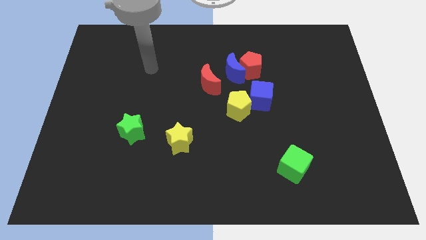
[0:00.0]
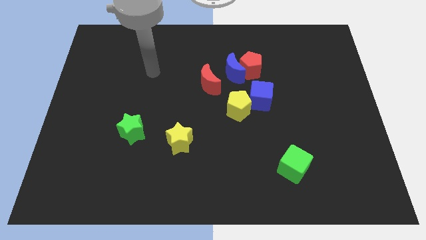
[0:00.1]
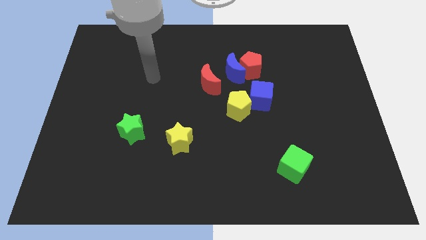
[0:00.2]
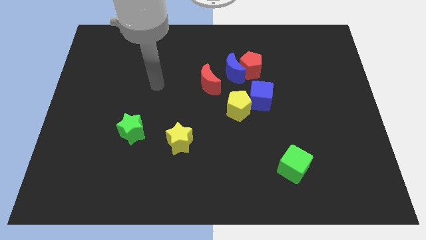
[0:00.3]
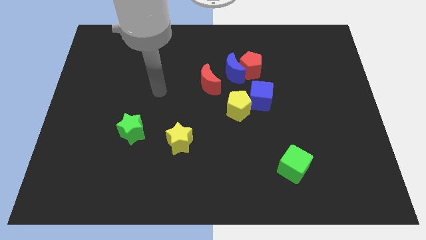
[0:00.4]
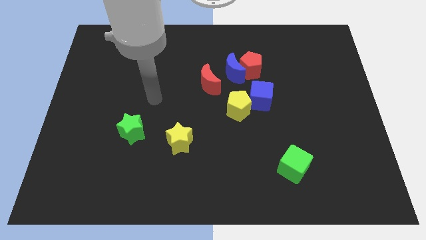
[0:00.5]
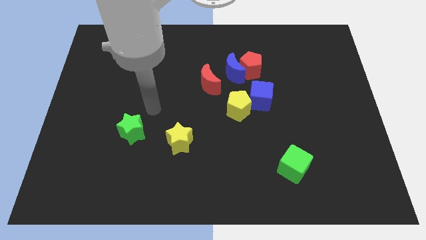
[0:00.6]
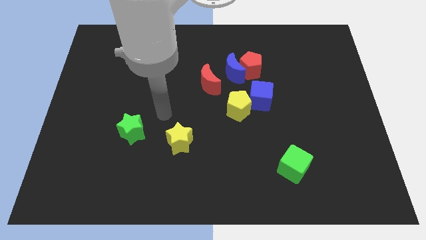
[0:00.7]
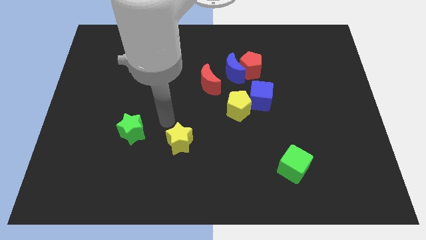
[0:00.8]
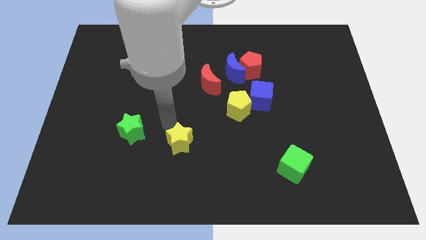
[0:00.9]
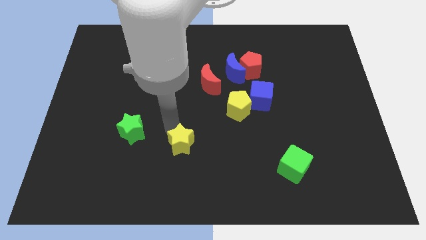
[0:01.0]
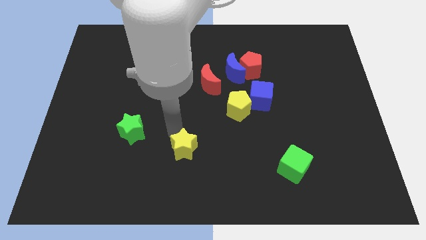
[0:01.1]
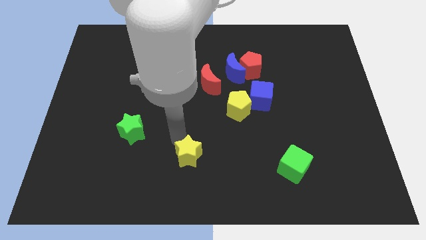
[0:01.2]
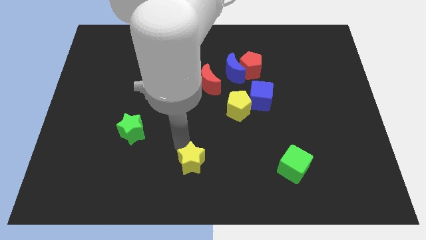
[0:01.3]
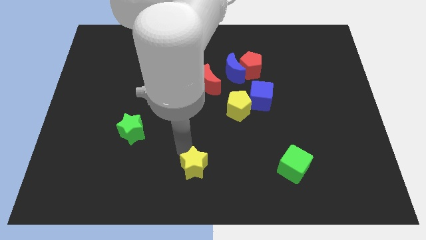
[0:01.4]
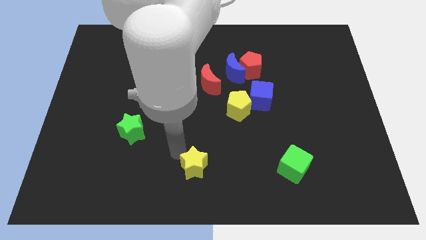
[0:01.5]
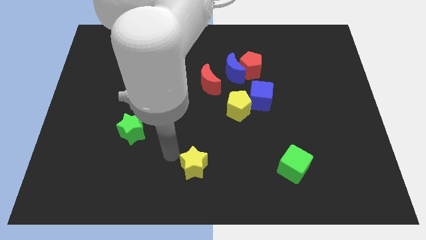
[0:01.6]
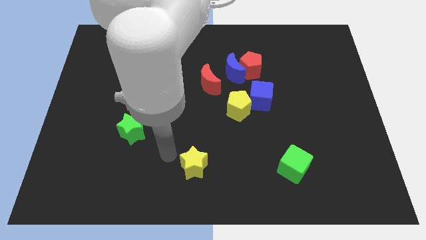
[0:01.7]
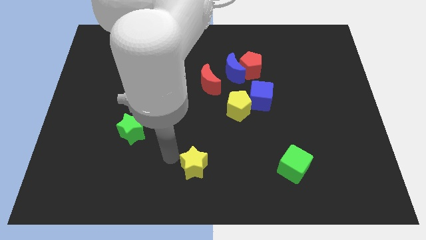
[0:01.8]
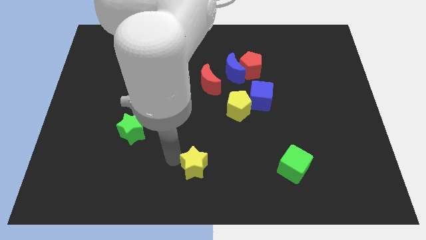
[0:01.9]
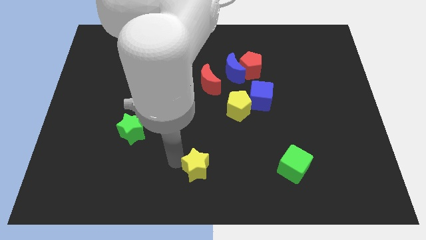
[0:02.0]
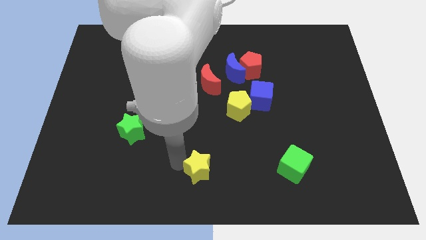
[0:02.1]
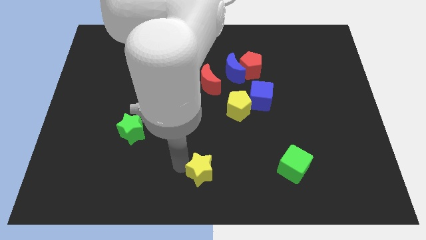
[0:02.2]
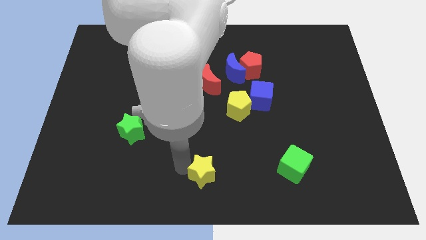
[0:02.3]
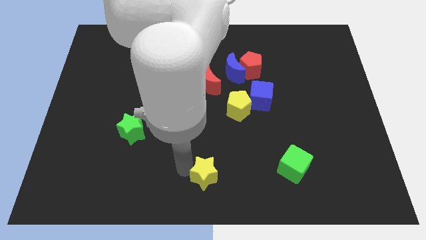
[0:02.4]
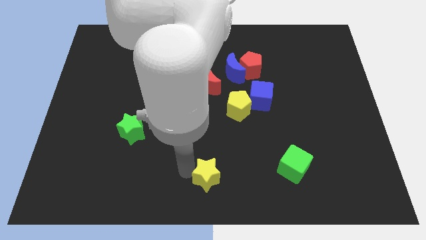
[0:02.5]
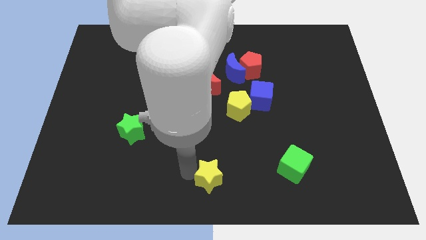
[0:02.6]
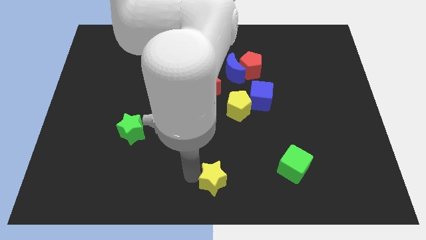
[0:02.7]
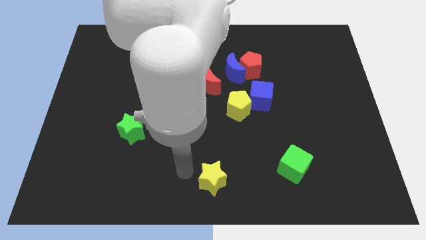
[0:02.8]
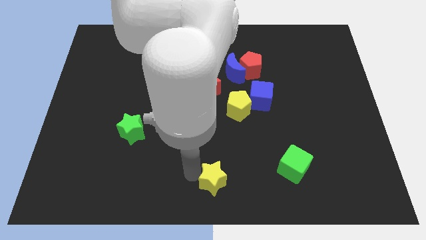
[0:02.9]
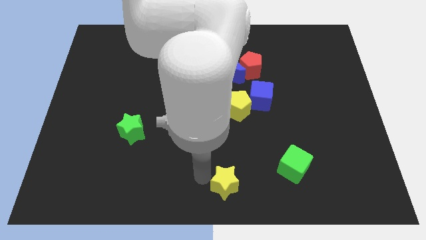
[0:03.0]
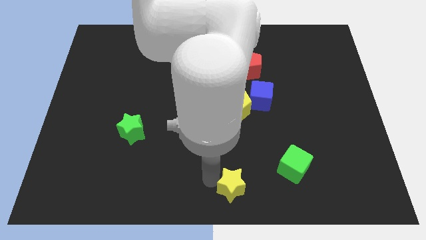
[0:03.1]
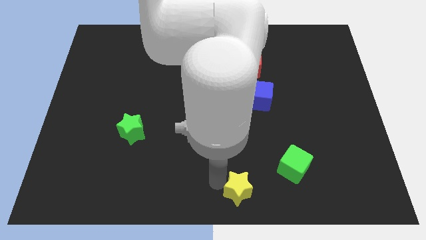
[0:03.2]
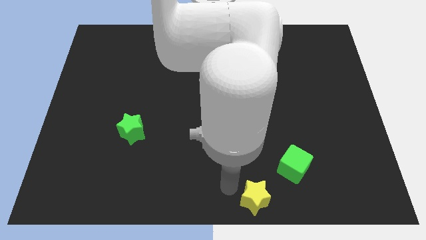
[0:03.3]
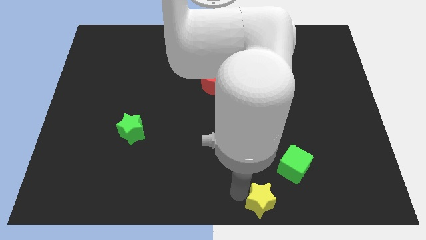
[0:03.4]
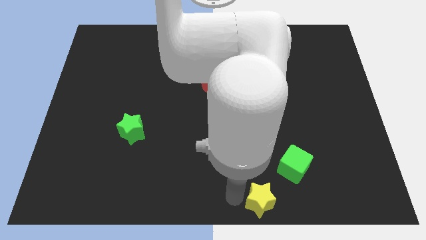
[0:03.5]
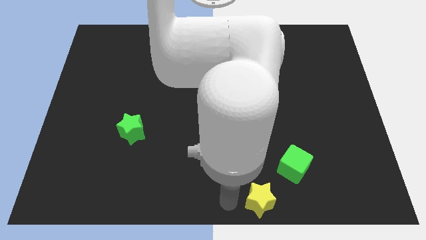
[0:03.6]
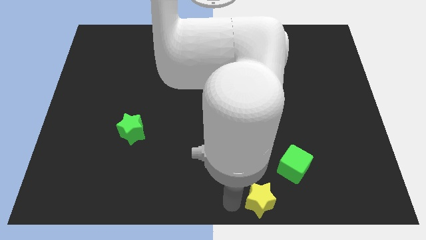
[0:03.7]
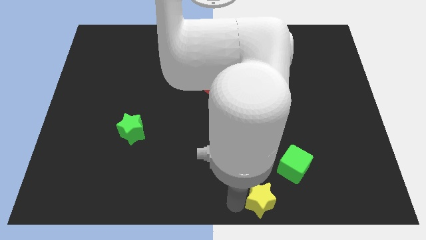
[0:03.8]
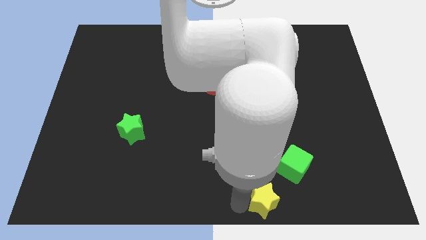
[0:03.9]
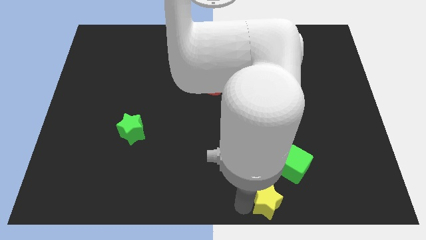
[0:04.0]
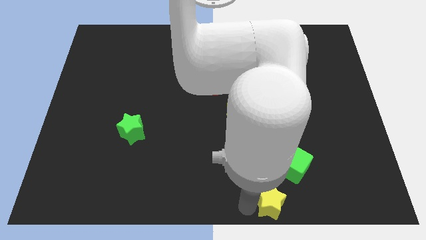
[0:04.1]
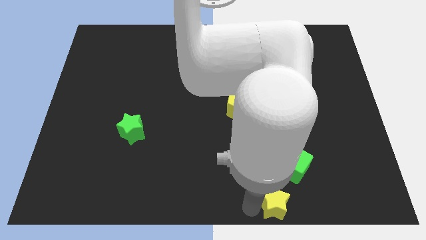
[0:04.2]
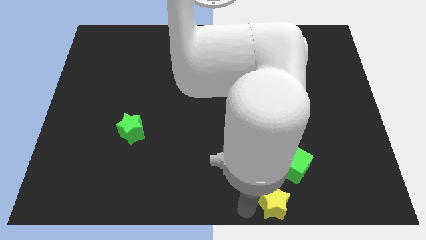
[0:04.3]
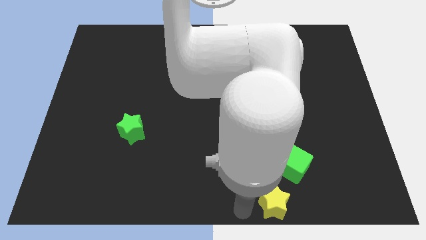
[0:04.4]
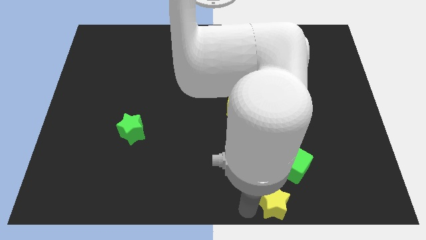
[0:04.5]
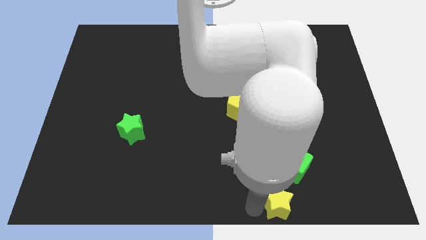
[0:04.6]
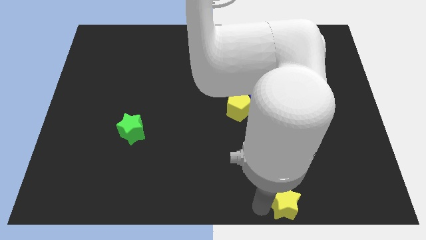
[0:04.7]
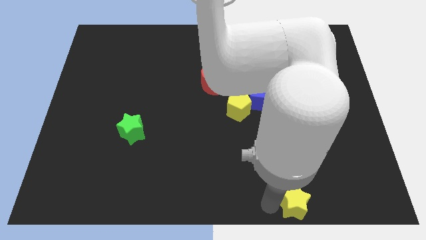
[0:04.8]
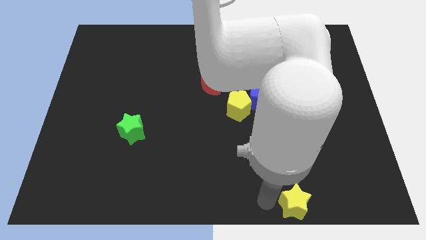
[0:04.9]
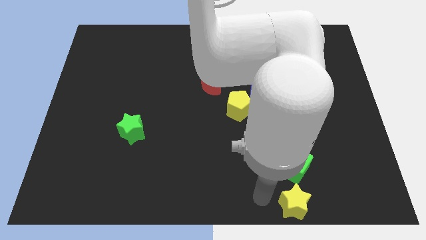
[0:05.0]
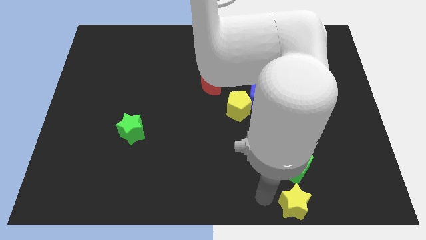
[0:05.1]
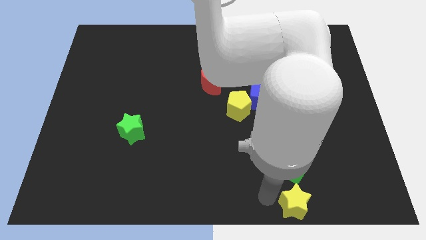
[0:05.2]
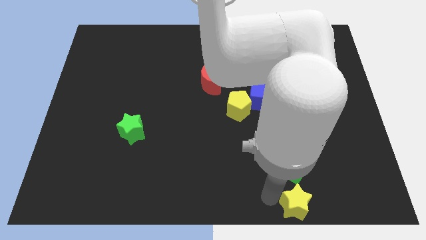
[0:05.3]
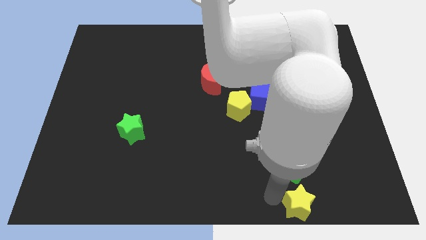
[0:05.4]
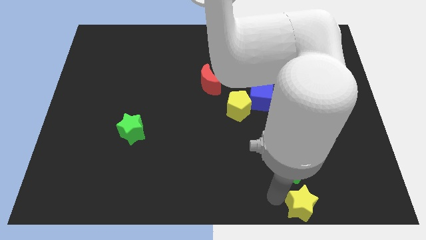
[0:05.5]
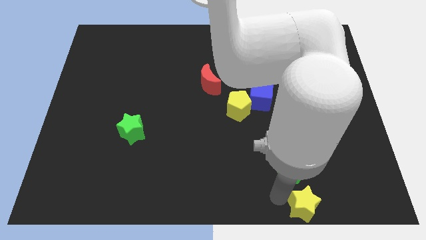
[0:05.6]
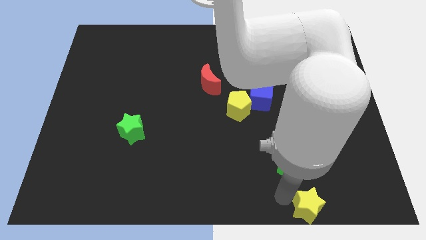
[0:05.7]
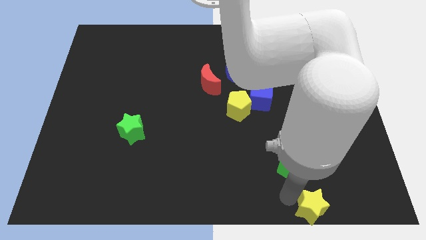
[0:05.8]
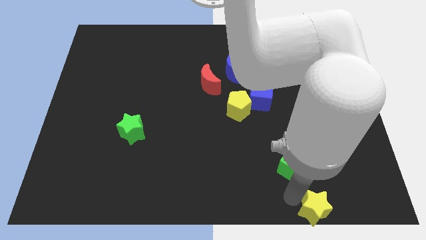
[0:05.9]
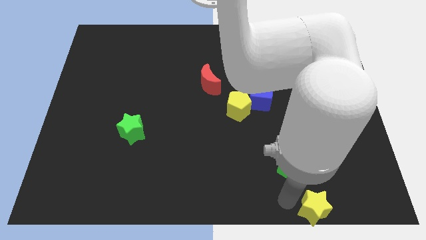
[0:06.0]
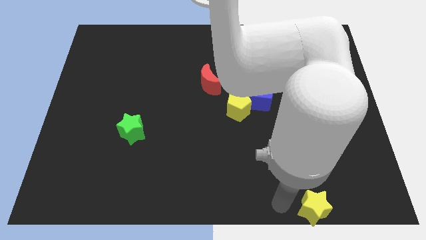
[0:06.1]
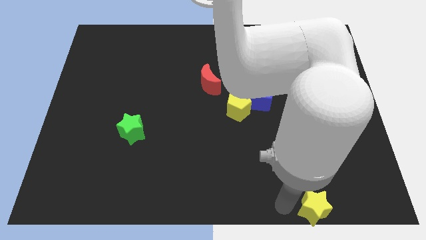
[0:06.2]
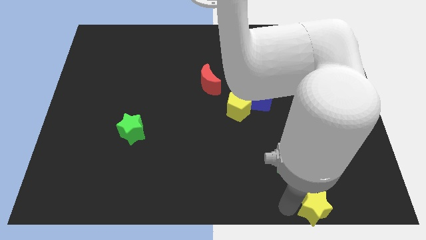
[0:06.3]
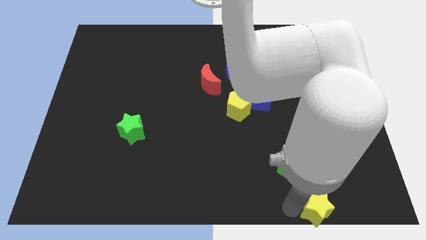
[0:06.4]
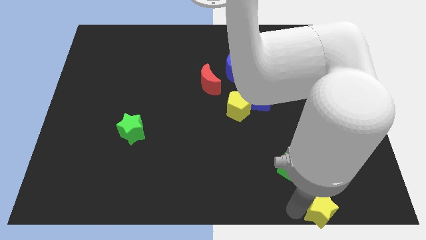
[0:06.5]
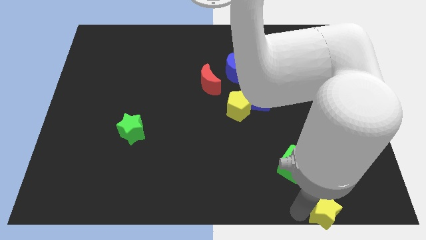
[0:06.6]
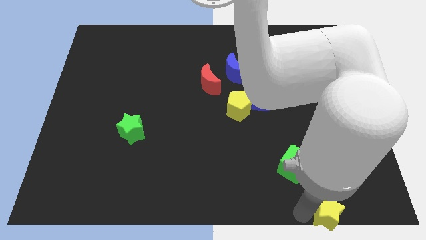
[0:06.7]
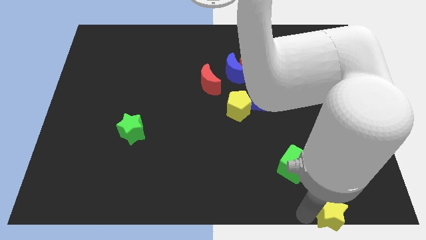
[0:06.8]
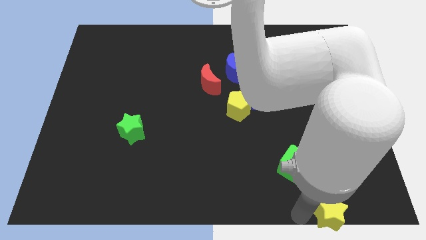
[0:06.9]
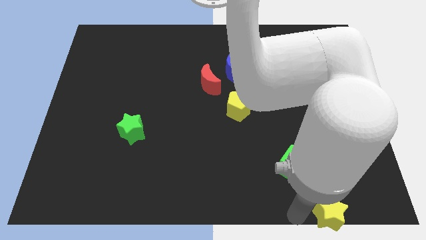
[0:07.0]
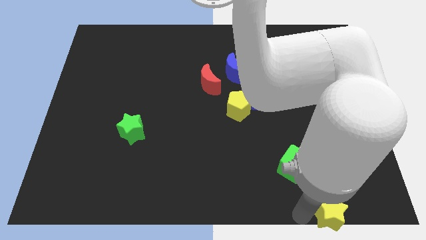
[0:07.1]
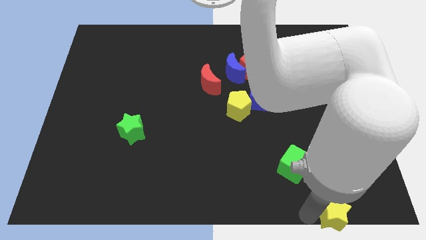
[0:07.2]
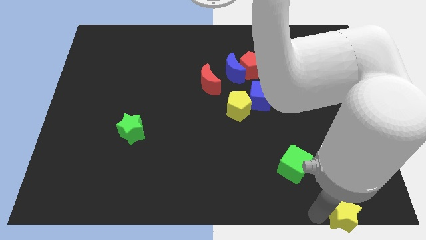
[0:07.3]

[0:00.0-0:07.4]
put the yellow star to the bottom right corner
